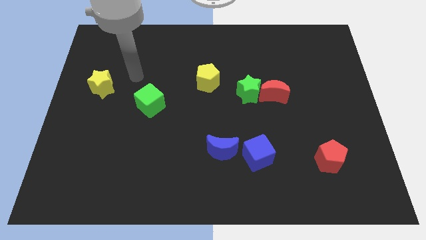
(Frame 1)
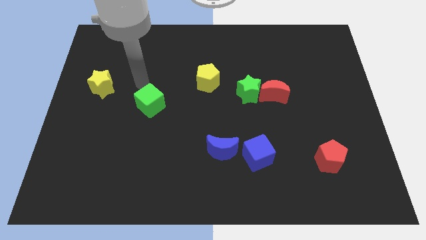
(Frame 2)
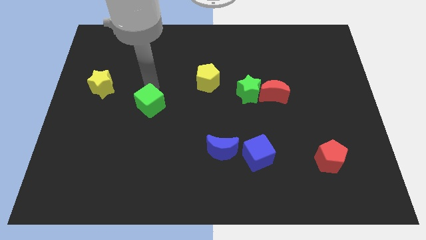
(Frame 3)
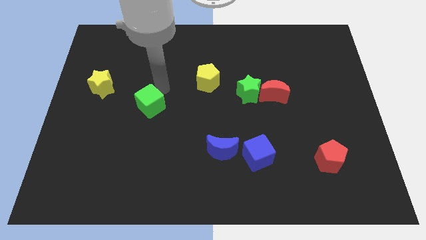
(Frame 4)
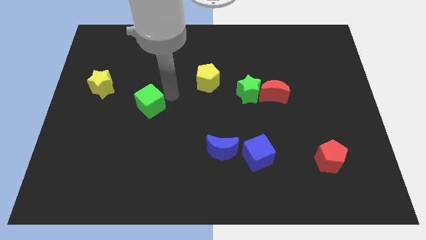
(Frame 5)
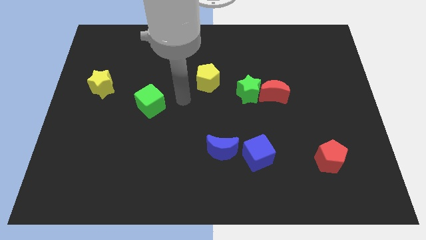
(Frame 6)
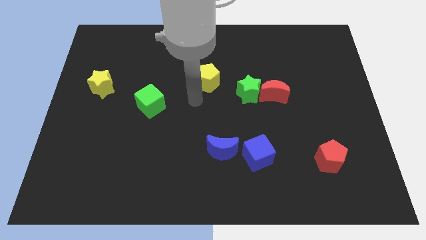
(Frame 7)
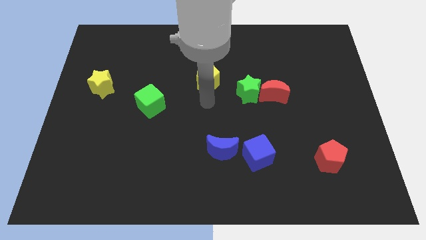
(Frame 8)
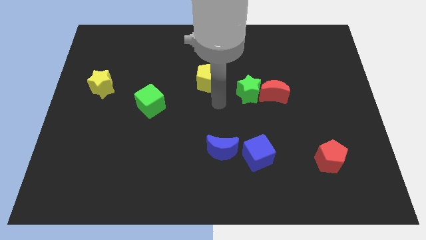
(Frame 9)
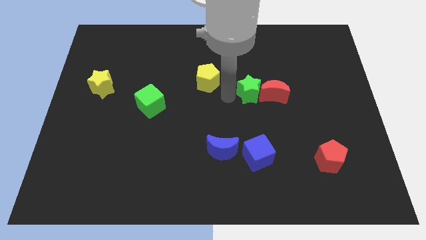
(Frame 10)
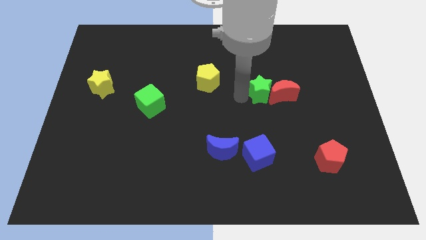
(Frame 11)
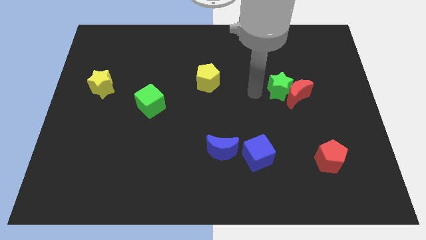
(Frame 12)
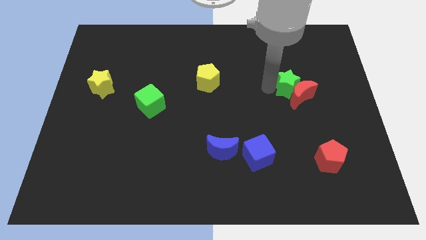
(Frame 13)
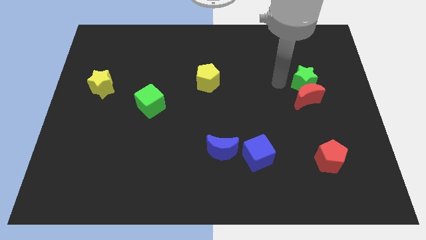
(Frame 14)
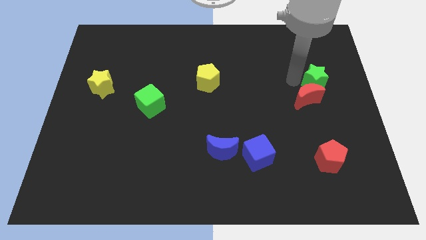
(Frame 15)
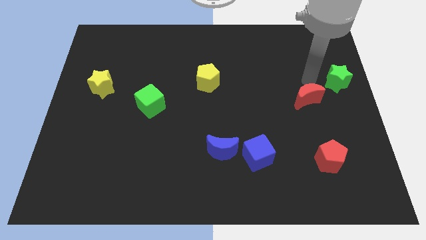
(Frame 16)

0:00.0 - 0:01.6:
pull the red moon apart from the green star

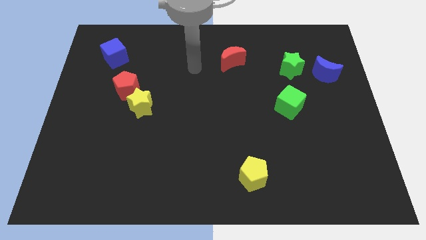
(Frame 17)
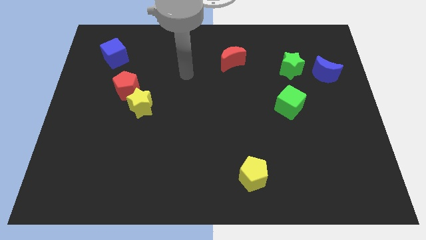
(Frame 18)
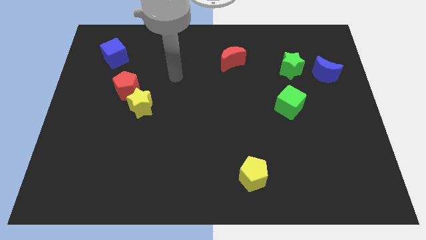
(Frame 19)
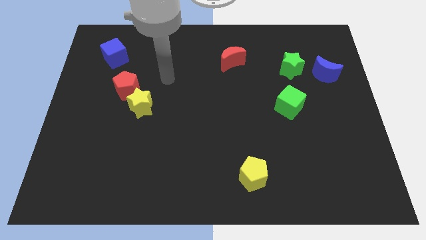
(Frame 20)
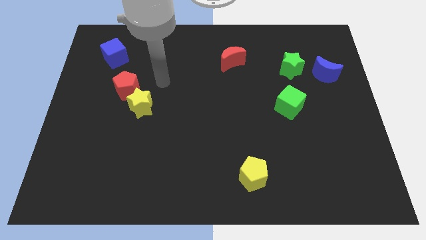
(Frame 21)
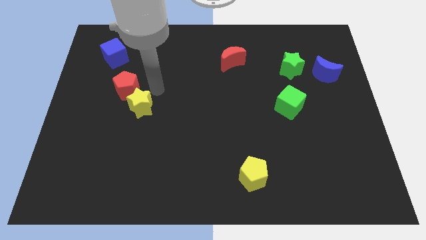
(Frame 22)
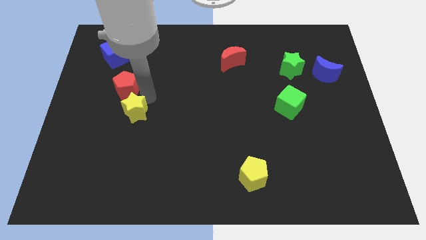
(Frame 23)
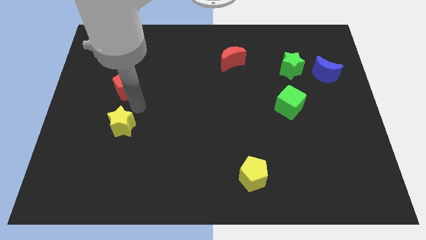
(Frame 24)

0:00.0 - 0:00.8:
separate the red pentagon from the yellow star

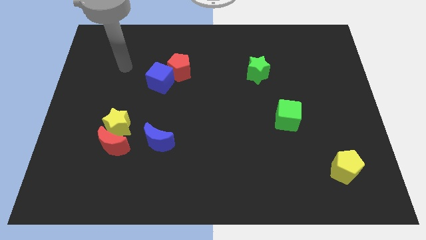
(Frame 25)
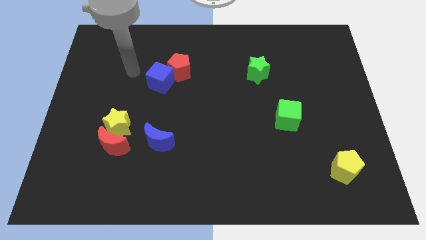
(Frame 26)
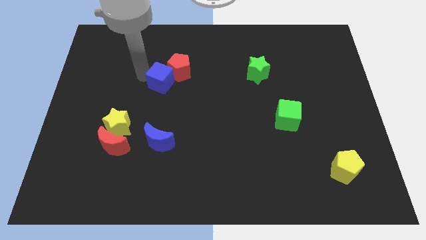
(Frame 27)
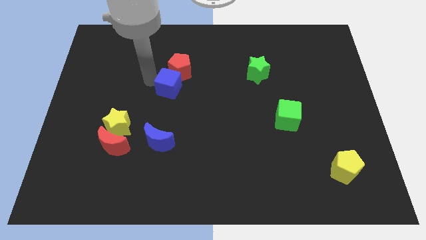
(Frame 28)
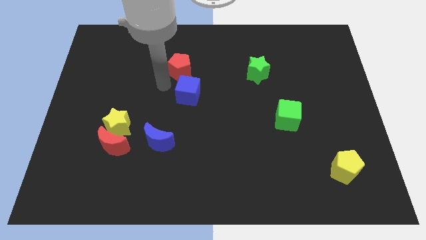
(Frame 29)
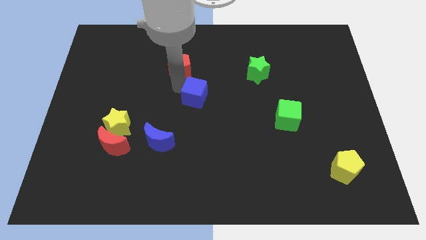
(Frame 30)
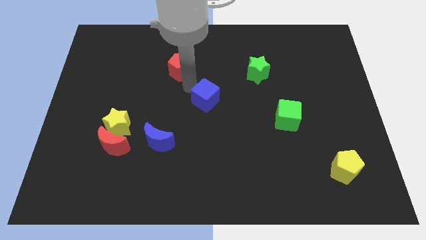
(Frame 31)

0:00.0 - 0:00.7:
separate the red pentagon from the blue cube

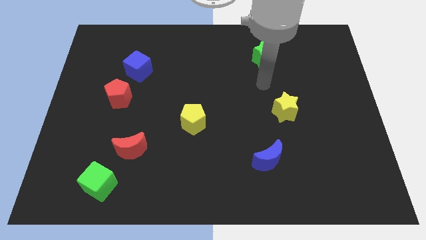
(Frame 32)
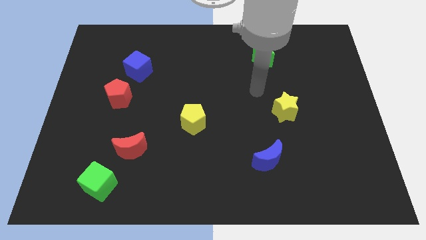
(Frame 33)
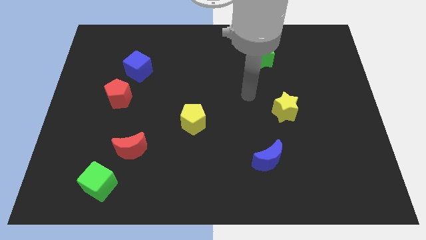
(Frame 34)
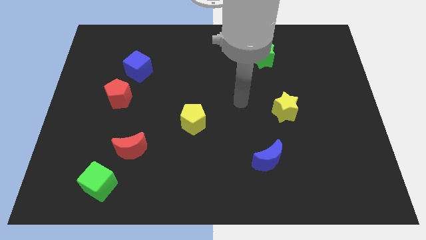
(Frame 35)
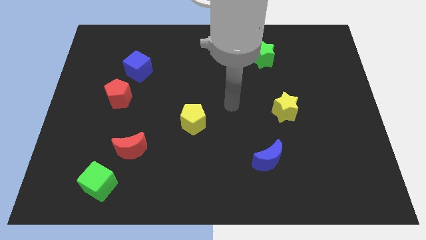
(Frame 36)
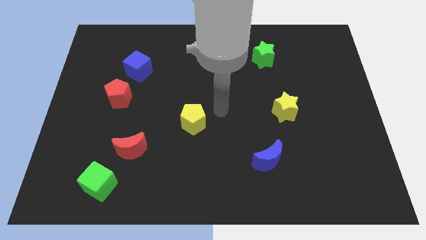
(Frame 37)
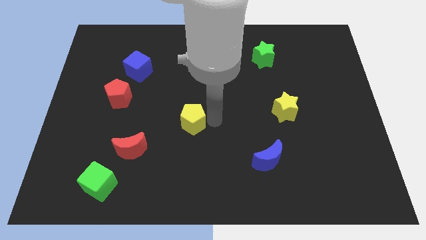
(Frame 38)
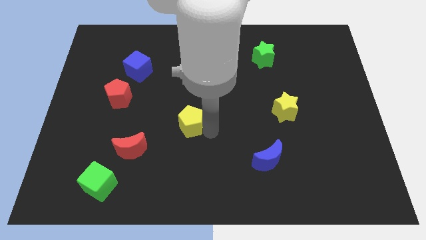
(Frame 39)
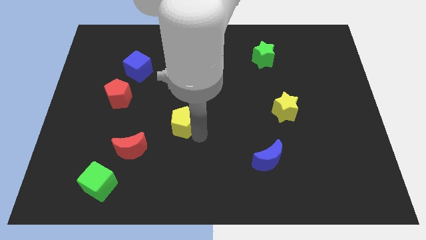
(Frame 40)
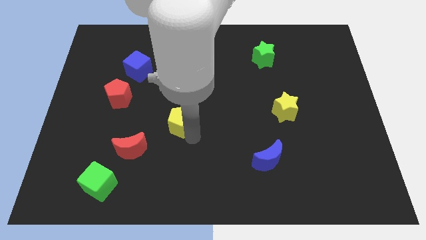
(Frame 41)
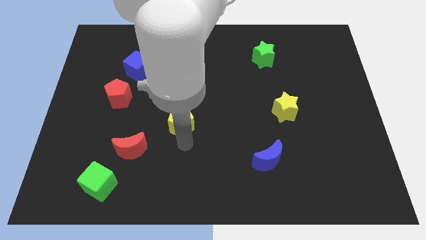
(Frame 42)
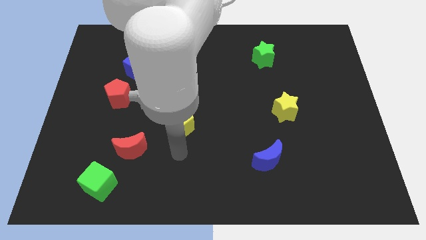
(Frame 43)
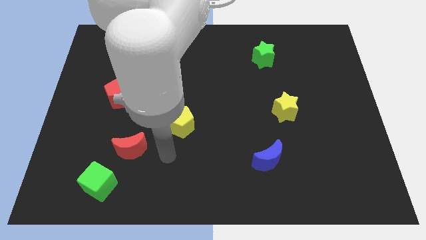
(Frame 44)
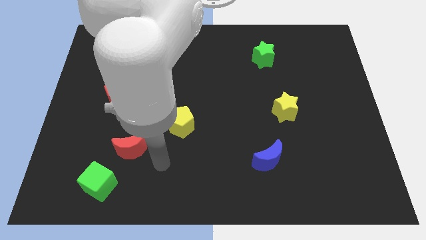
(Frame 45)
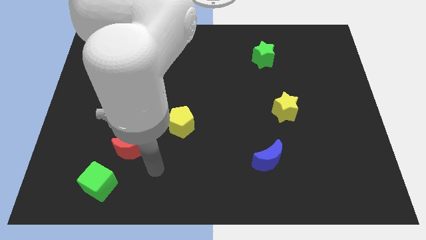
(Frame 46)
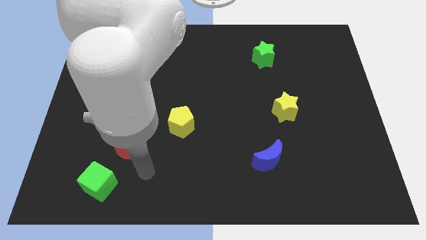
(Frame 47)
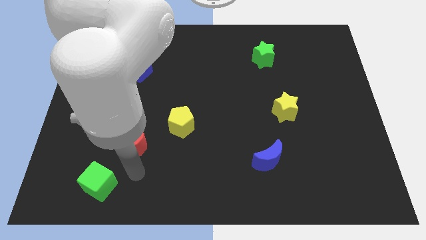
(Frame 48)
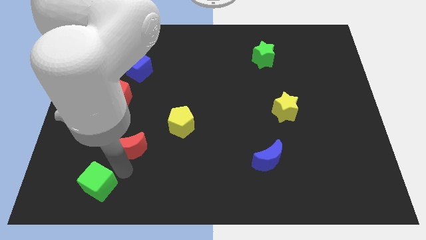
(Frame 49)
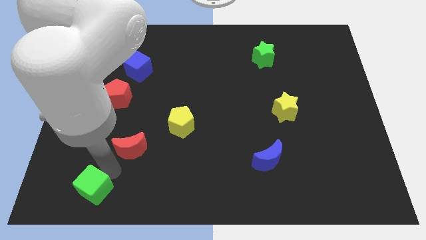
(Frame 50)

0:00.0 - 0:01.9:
separate the red moon from the green cube

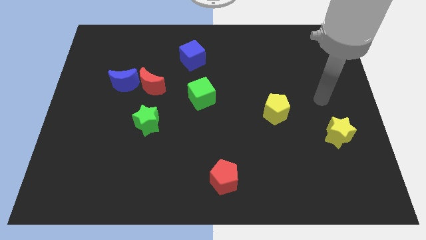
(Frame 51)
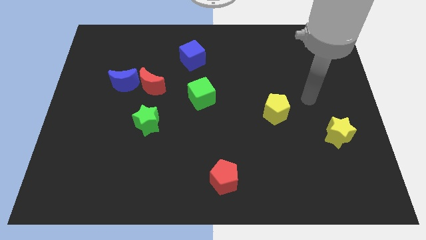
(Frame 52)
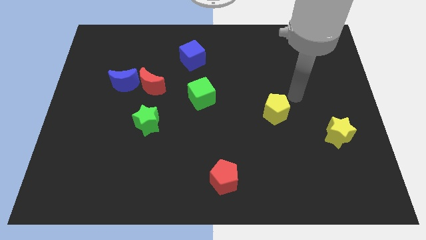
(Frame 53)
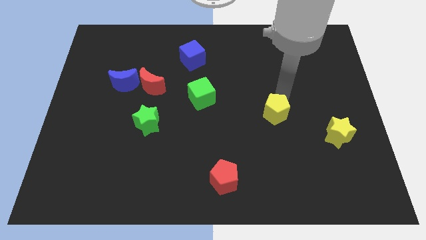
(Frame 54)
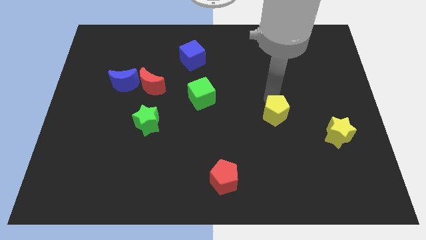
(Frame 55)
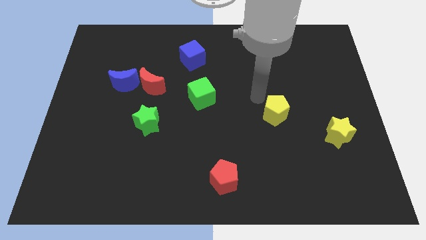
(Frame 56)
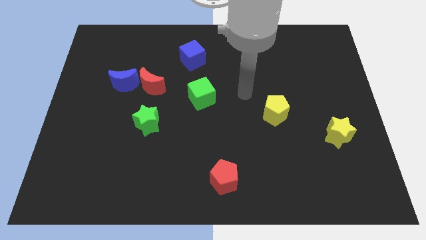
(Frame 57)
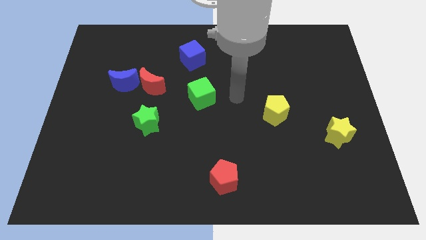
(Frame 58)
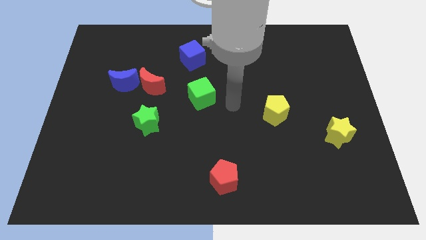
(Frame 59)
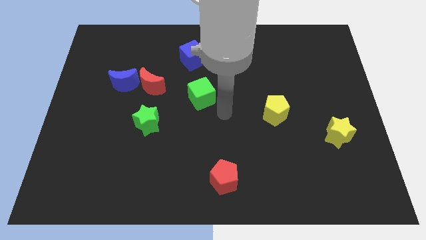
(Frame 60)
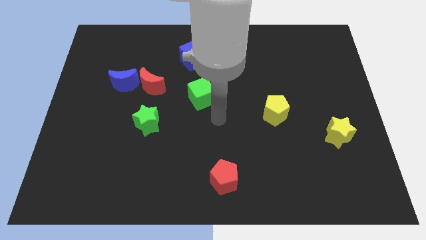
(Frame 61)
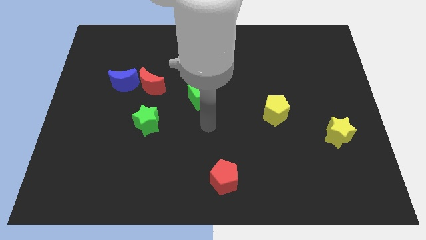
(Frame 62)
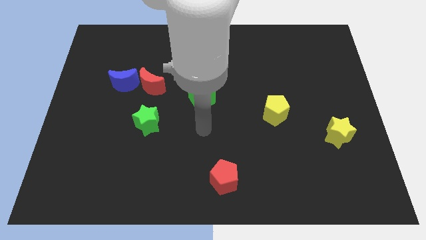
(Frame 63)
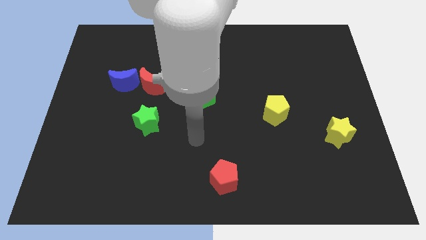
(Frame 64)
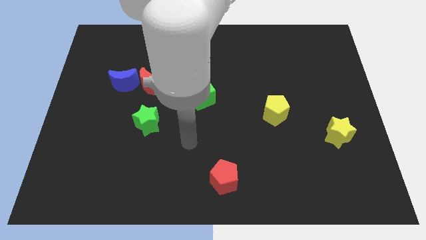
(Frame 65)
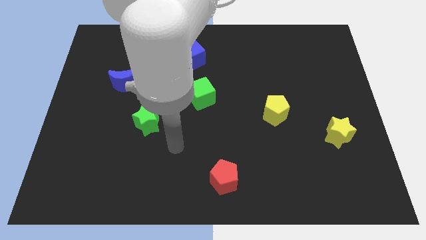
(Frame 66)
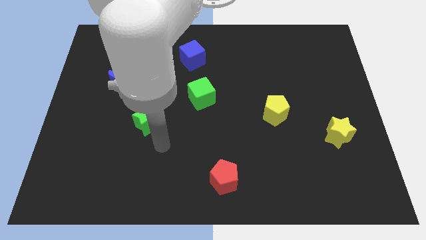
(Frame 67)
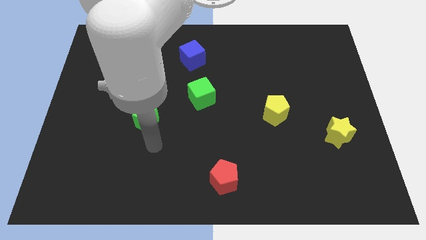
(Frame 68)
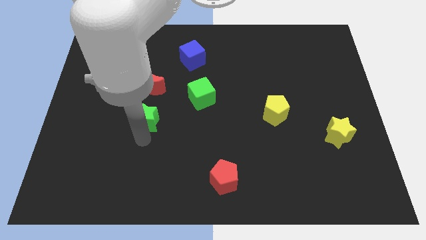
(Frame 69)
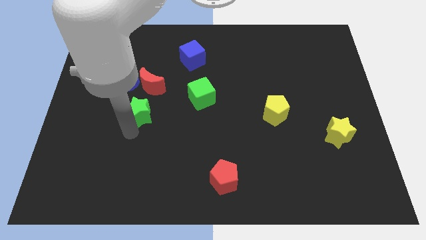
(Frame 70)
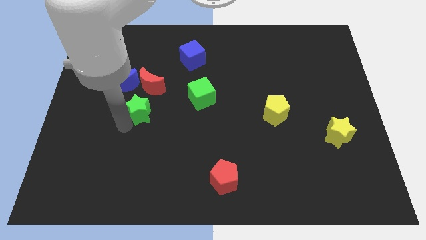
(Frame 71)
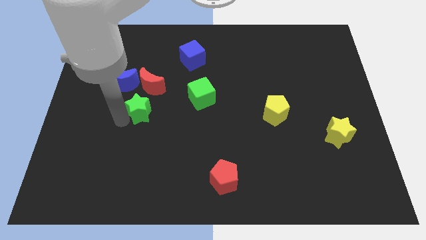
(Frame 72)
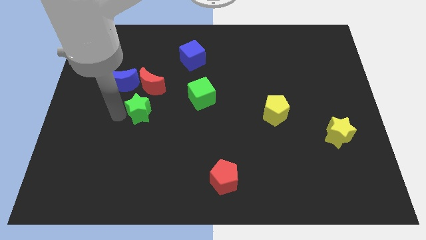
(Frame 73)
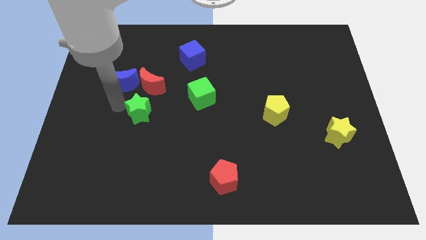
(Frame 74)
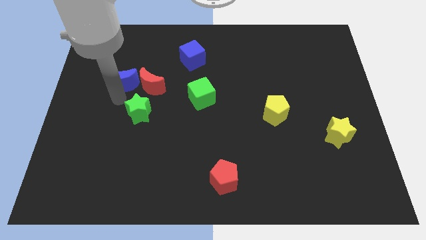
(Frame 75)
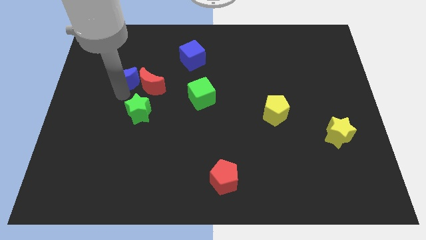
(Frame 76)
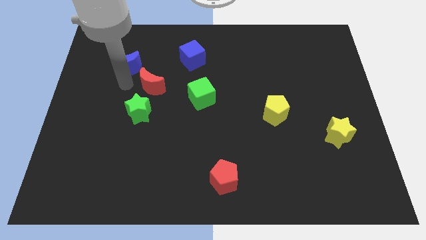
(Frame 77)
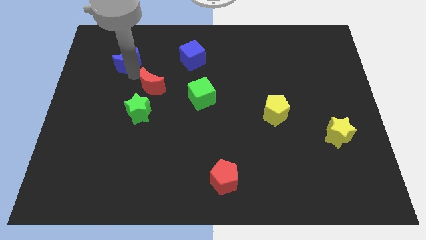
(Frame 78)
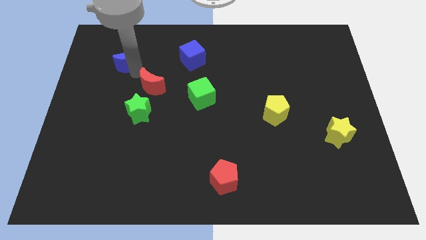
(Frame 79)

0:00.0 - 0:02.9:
separate the red moon from the blue moon

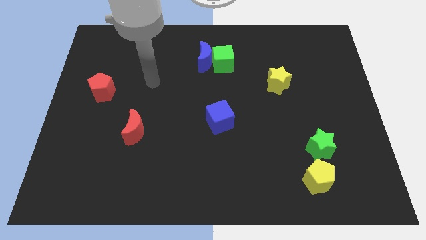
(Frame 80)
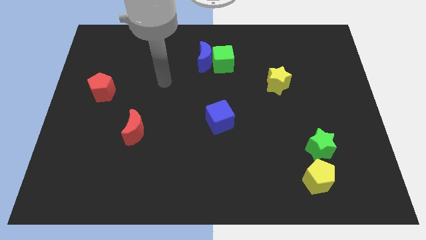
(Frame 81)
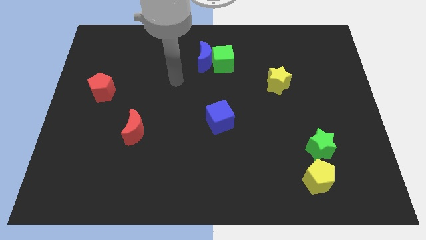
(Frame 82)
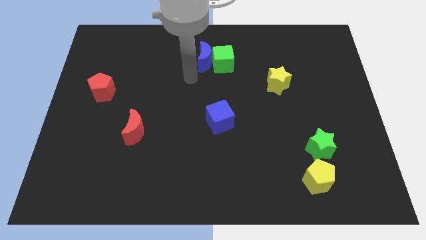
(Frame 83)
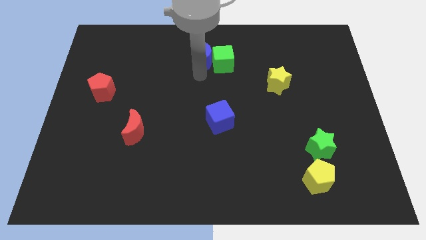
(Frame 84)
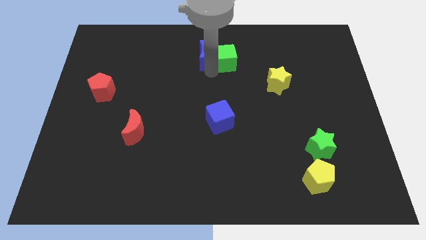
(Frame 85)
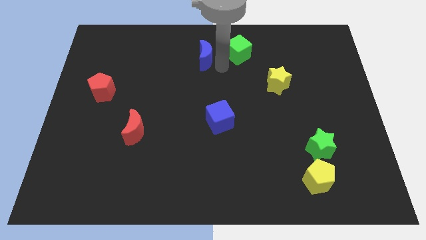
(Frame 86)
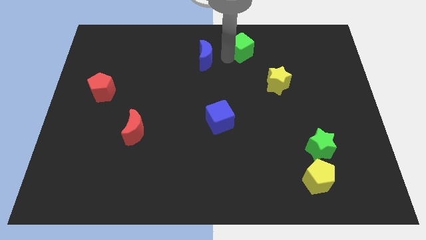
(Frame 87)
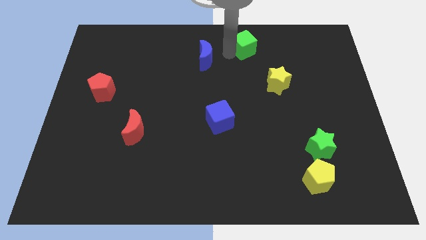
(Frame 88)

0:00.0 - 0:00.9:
move the blue moon away from the green cube

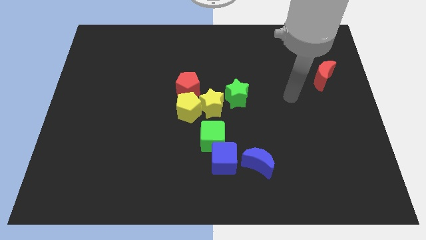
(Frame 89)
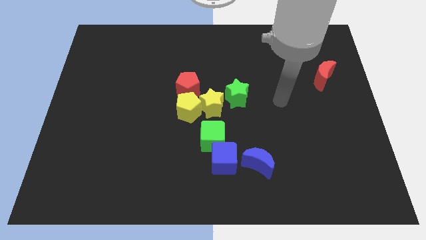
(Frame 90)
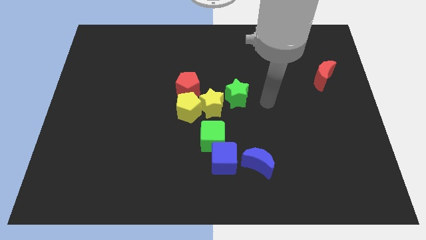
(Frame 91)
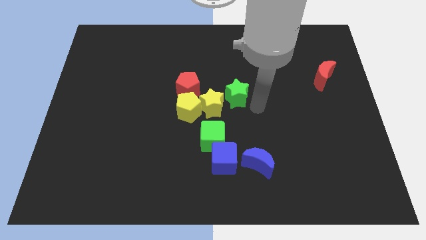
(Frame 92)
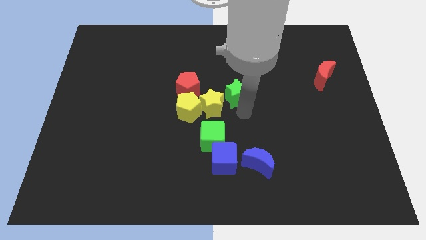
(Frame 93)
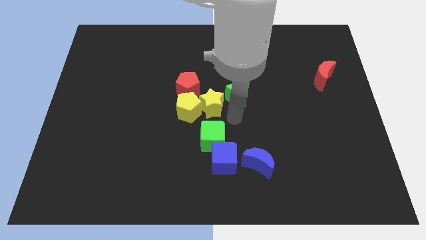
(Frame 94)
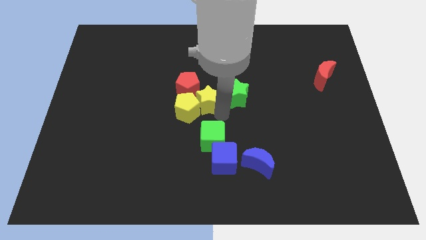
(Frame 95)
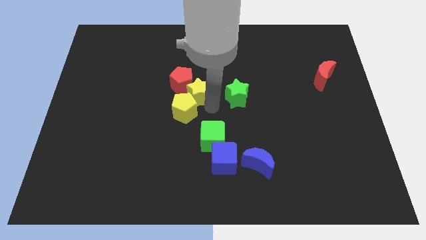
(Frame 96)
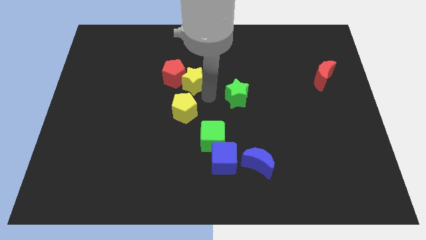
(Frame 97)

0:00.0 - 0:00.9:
pull the green star apart from the yellow star
